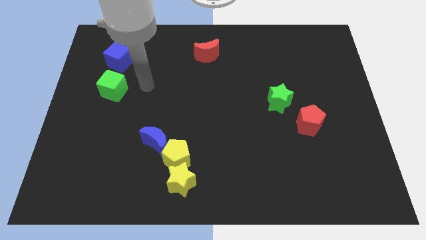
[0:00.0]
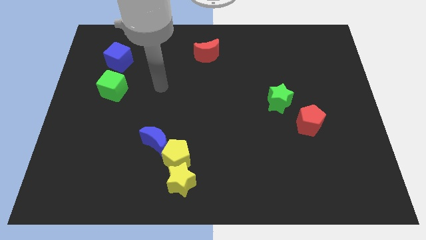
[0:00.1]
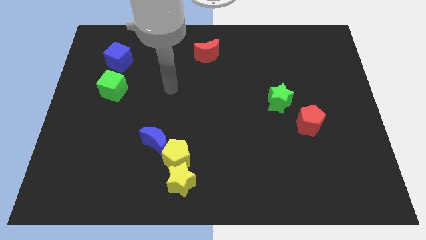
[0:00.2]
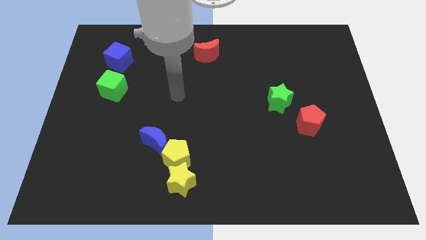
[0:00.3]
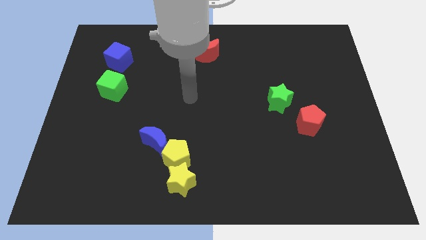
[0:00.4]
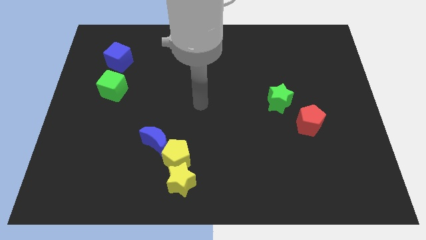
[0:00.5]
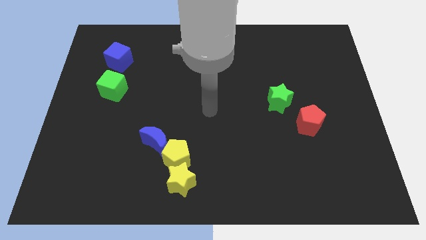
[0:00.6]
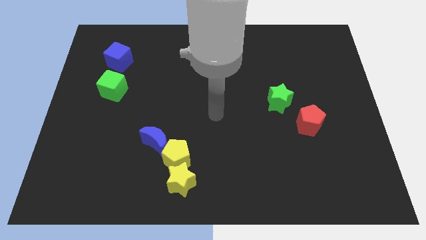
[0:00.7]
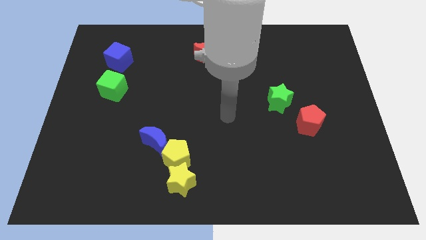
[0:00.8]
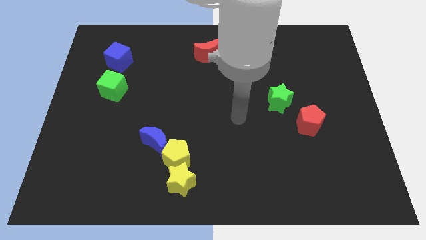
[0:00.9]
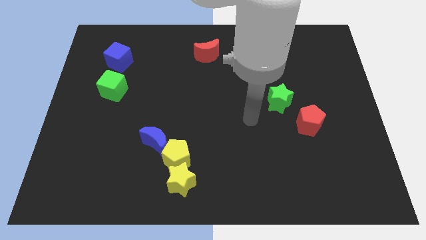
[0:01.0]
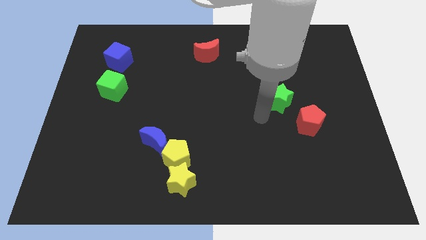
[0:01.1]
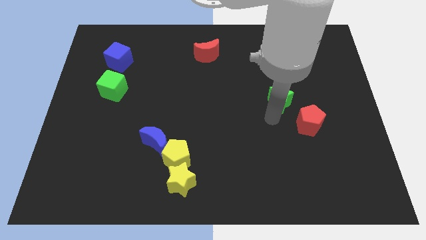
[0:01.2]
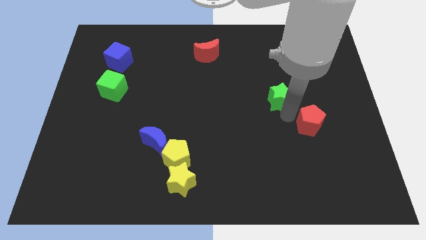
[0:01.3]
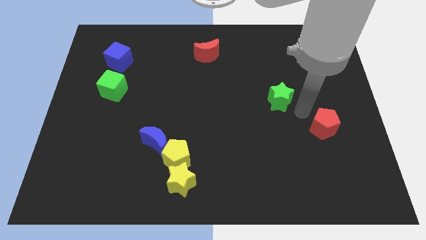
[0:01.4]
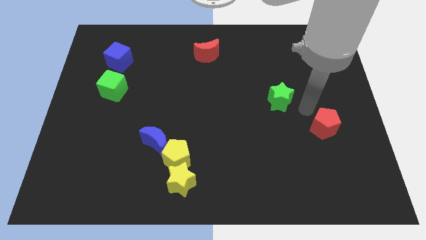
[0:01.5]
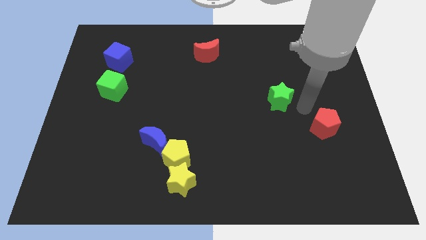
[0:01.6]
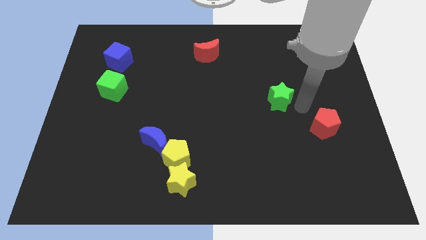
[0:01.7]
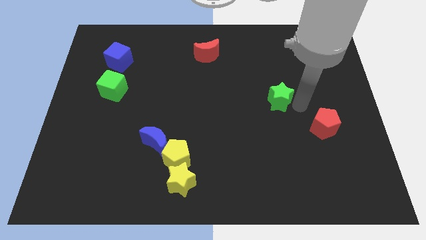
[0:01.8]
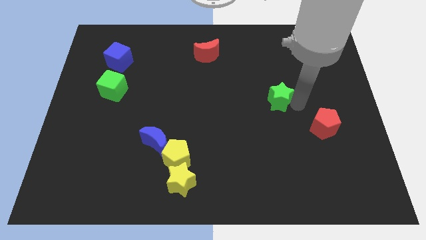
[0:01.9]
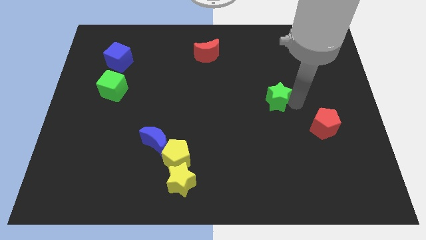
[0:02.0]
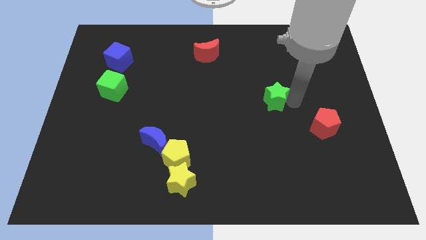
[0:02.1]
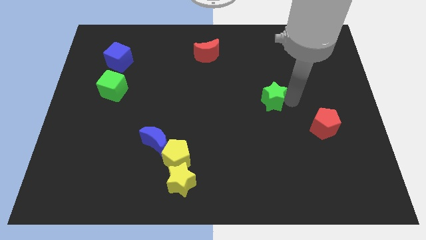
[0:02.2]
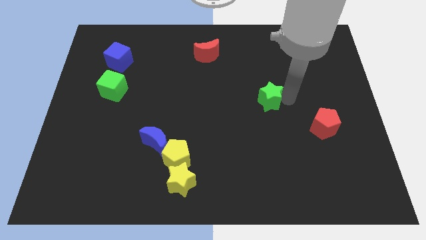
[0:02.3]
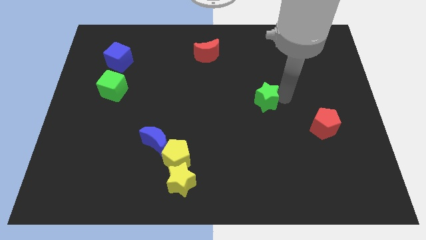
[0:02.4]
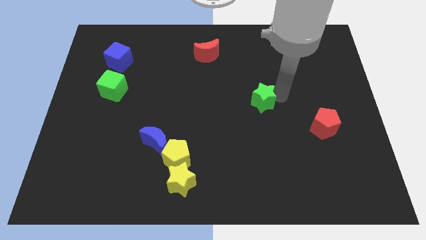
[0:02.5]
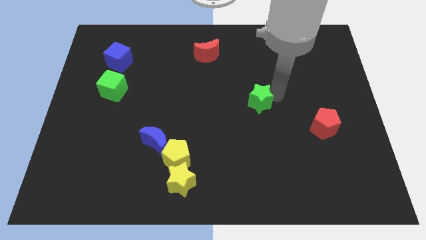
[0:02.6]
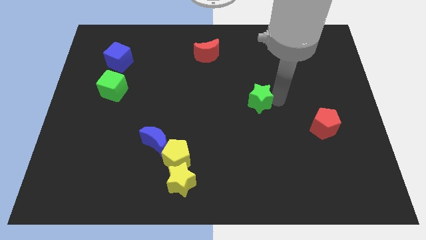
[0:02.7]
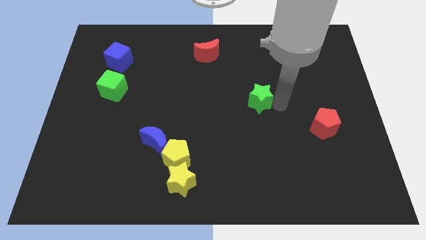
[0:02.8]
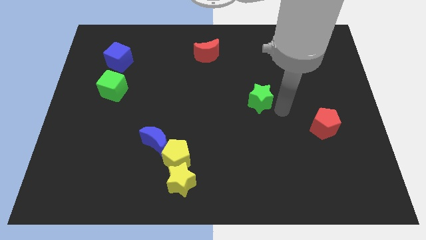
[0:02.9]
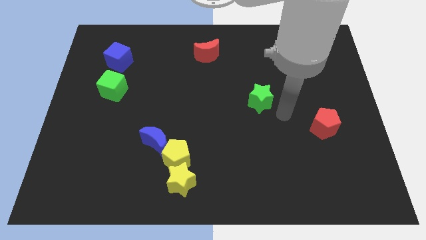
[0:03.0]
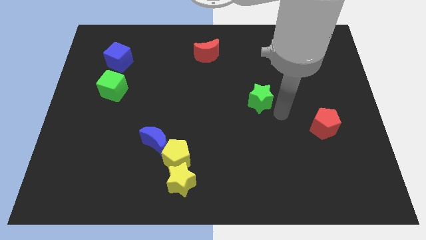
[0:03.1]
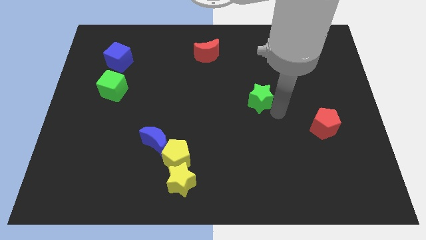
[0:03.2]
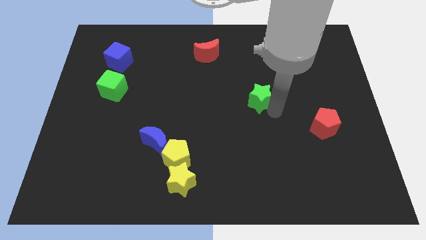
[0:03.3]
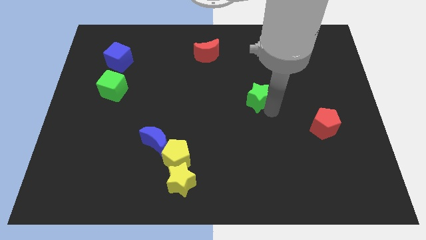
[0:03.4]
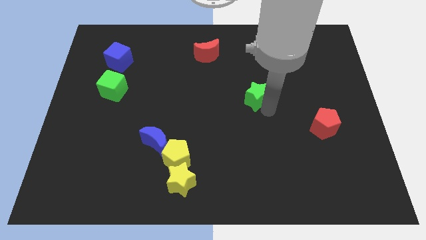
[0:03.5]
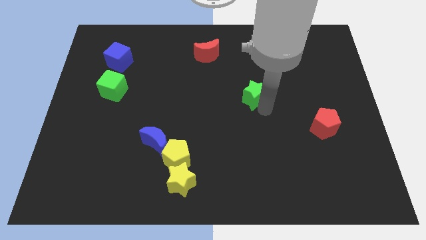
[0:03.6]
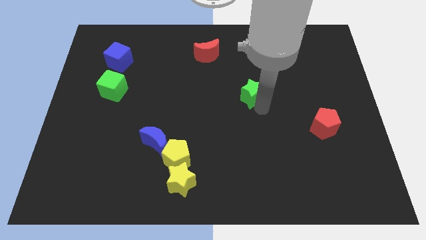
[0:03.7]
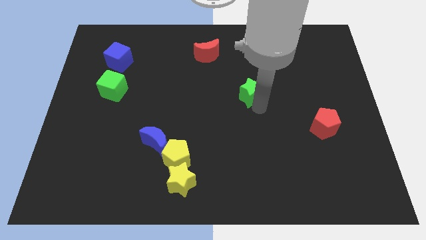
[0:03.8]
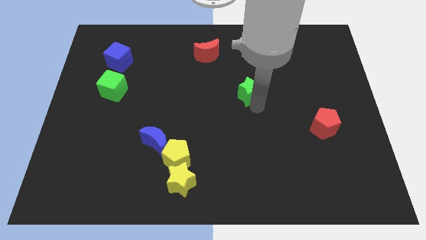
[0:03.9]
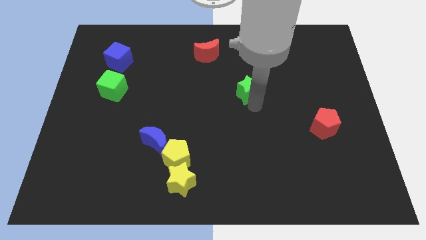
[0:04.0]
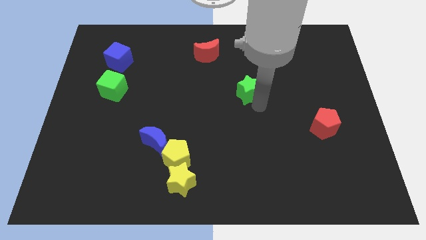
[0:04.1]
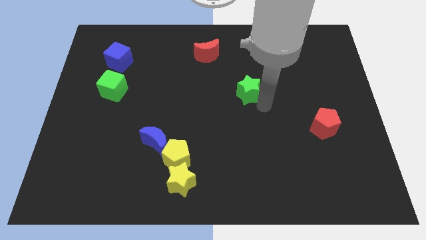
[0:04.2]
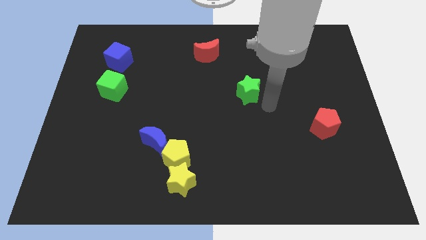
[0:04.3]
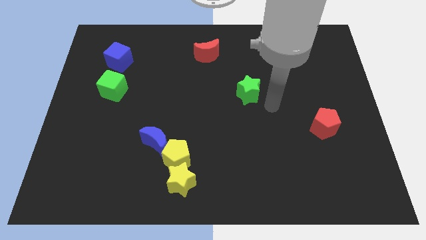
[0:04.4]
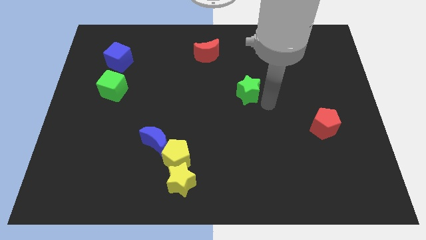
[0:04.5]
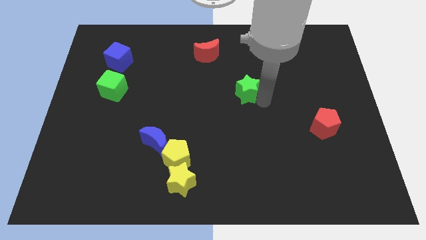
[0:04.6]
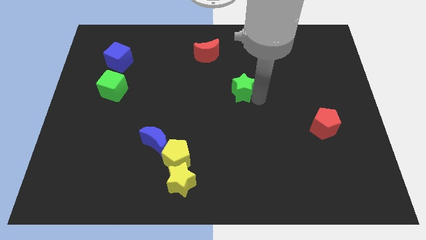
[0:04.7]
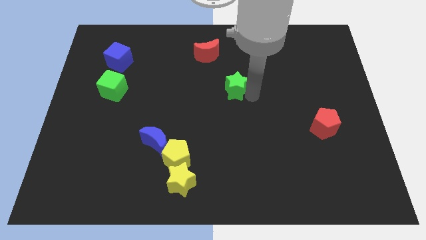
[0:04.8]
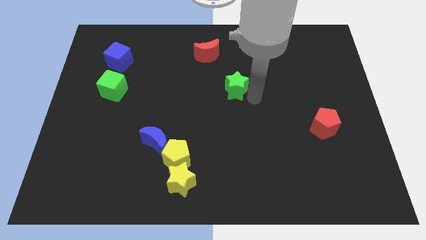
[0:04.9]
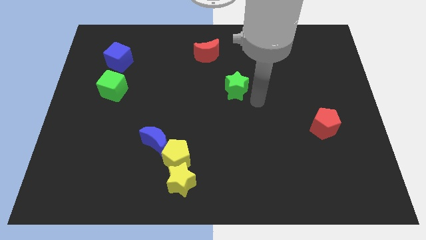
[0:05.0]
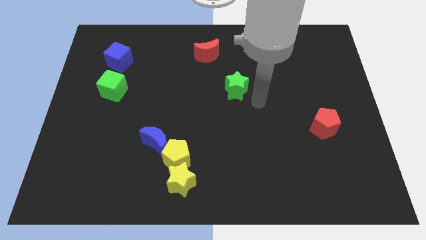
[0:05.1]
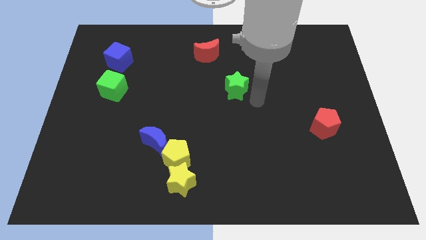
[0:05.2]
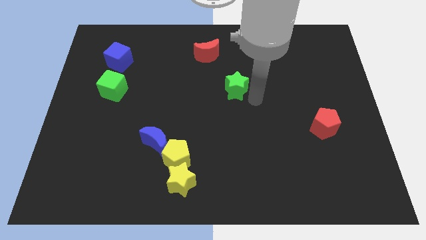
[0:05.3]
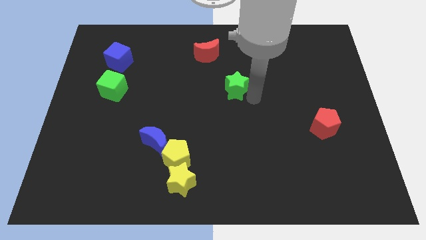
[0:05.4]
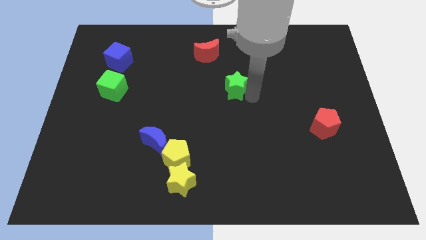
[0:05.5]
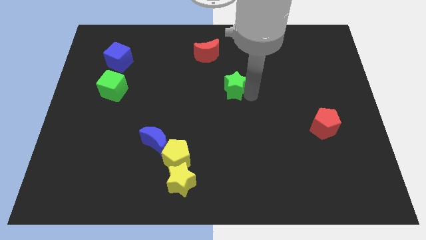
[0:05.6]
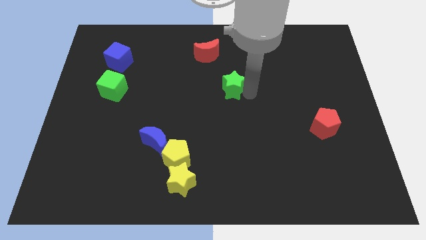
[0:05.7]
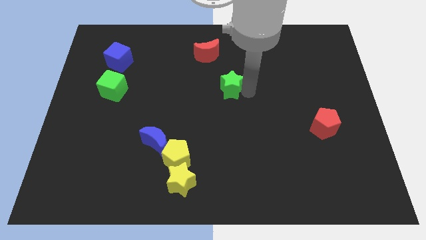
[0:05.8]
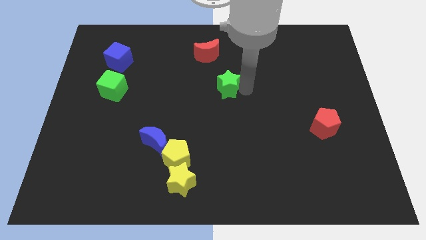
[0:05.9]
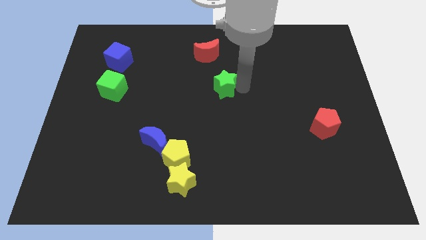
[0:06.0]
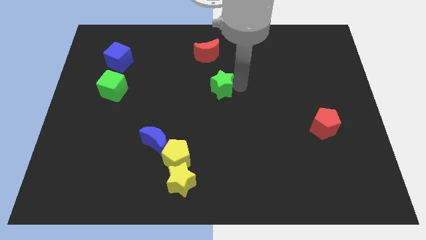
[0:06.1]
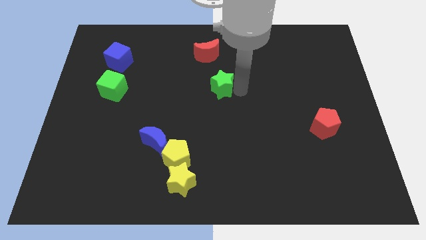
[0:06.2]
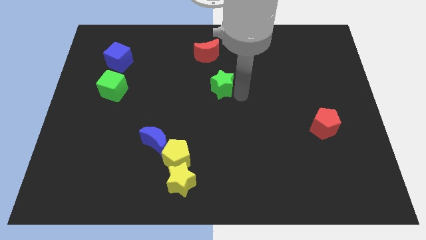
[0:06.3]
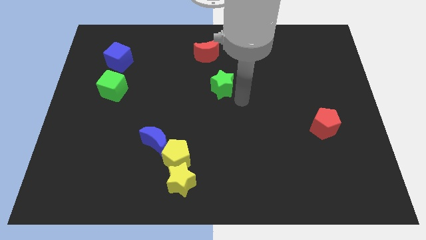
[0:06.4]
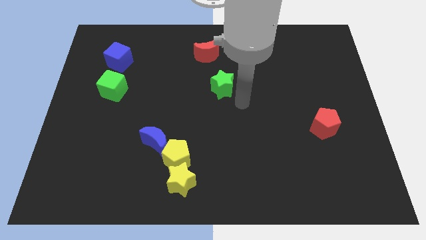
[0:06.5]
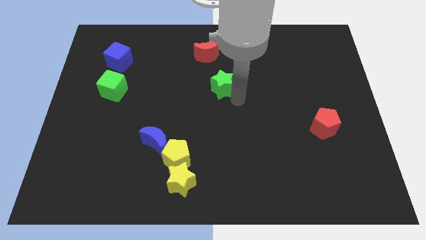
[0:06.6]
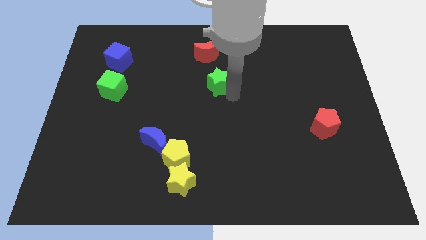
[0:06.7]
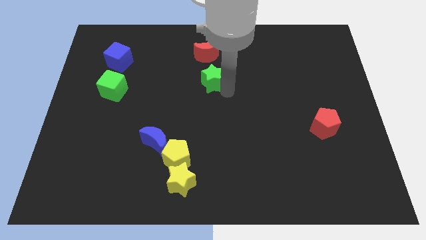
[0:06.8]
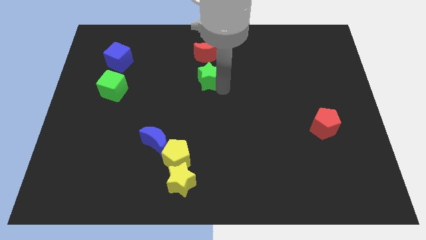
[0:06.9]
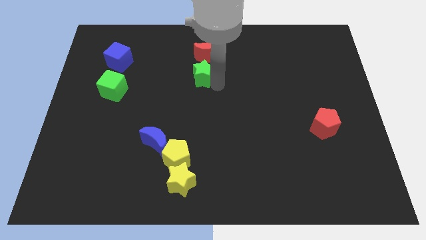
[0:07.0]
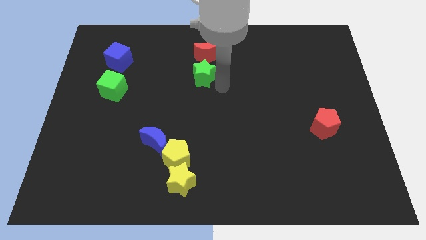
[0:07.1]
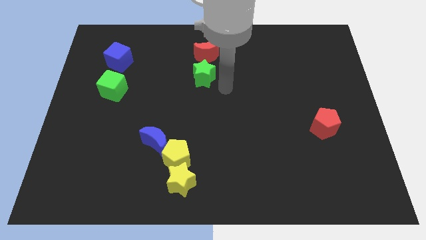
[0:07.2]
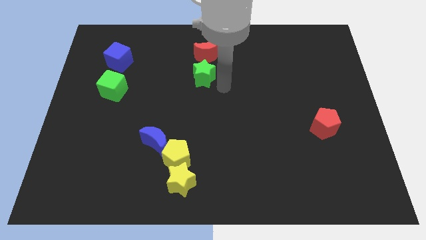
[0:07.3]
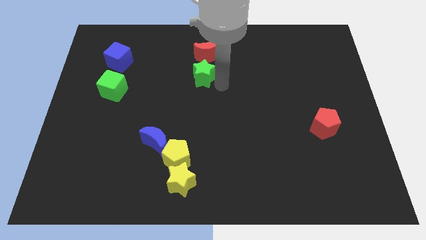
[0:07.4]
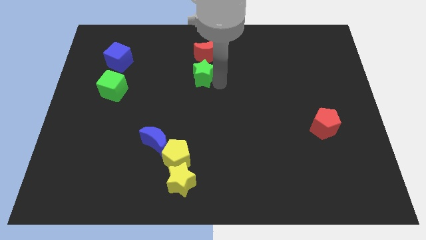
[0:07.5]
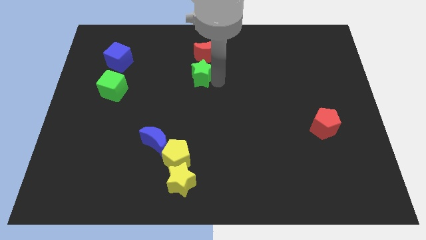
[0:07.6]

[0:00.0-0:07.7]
move the green star diagonally down and to the left of the red moon
